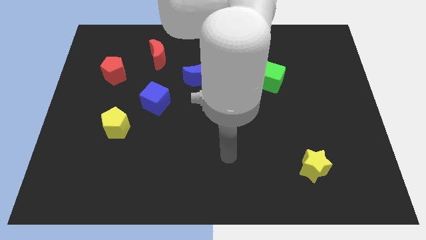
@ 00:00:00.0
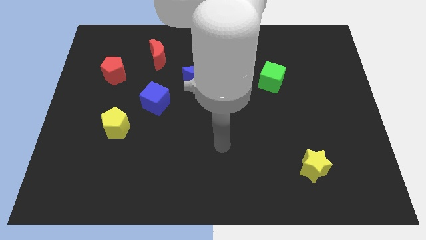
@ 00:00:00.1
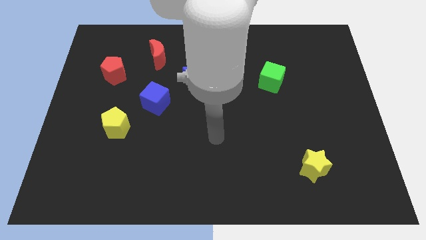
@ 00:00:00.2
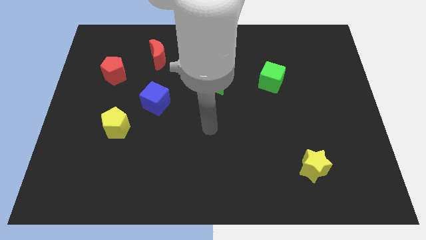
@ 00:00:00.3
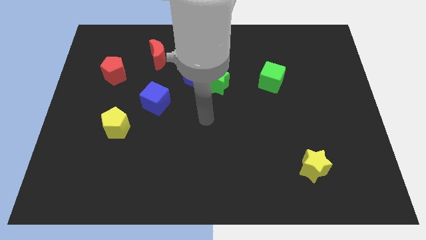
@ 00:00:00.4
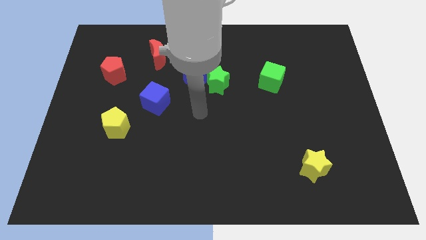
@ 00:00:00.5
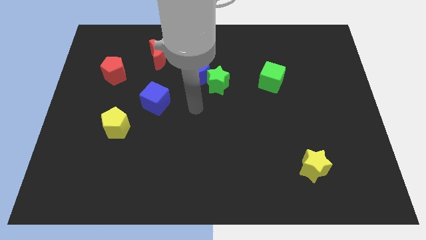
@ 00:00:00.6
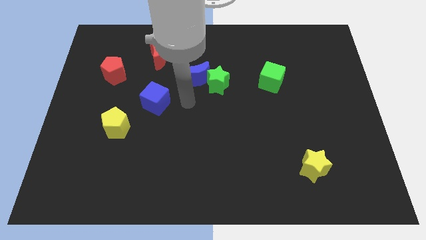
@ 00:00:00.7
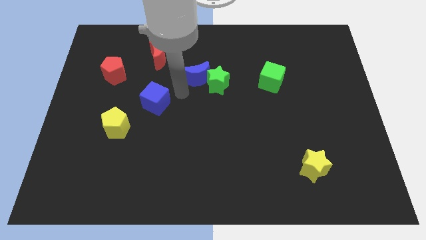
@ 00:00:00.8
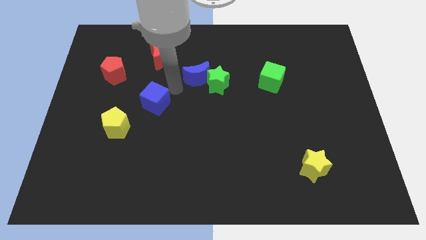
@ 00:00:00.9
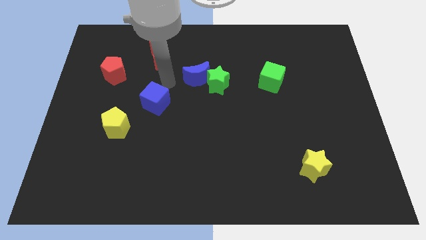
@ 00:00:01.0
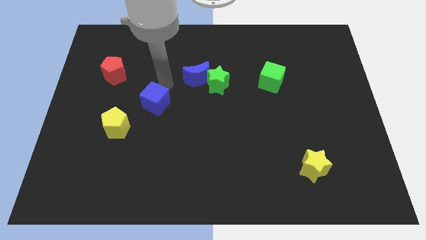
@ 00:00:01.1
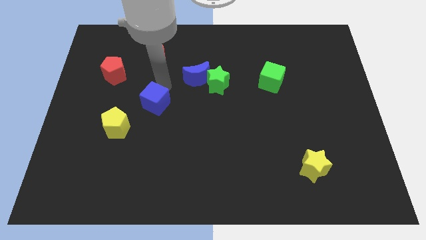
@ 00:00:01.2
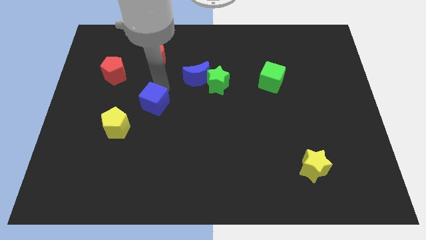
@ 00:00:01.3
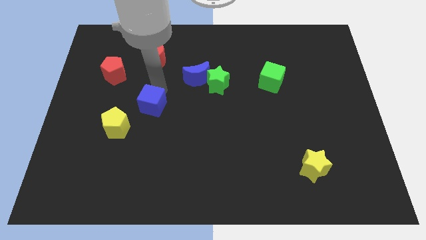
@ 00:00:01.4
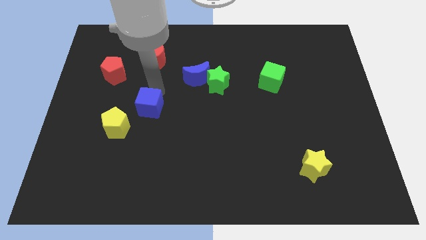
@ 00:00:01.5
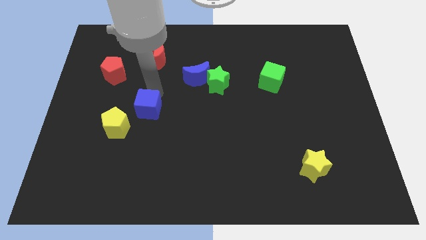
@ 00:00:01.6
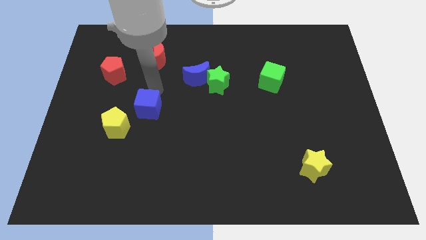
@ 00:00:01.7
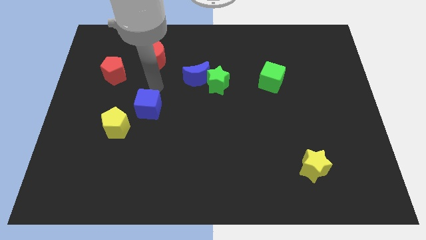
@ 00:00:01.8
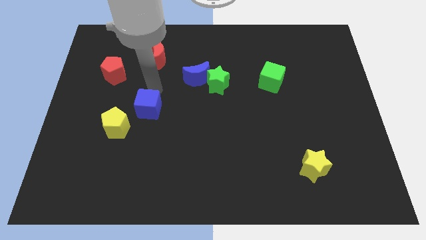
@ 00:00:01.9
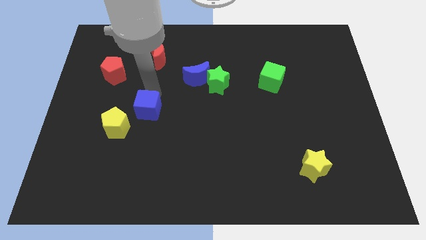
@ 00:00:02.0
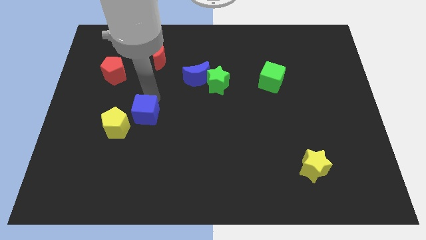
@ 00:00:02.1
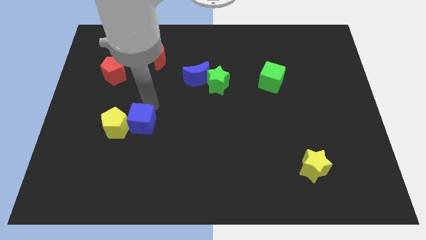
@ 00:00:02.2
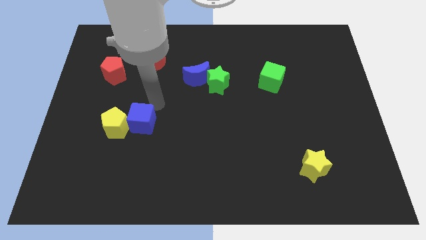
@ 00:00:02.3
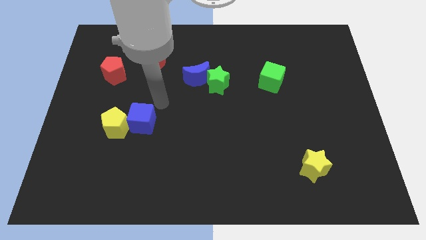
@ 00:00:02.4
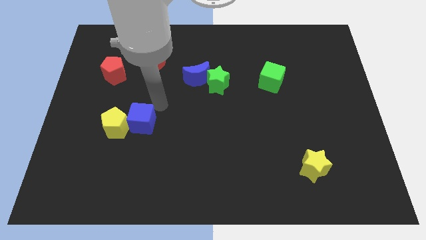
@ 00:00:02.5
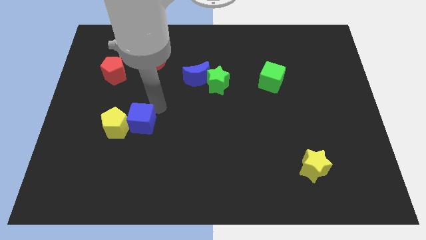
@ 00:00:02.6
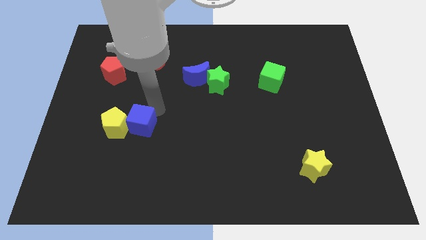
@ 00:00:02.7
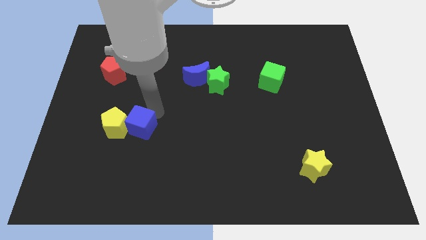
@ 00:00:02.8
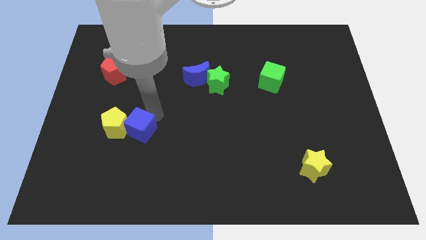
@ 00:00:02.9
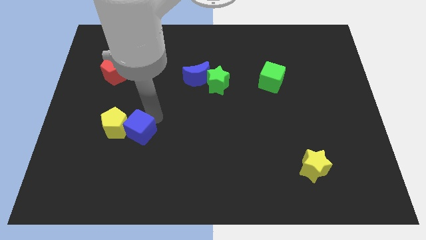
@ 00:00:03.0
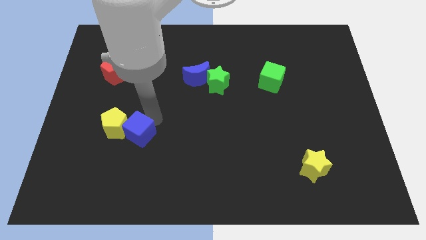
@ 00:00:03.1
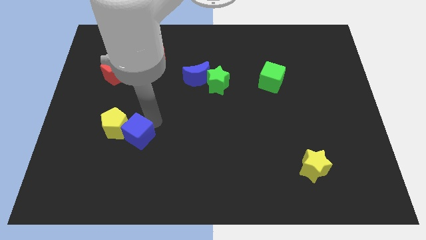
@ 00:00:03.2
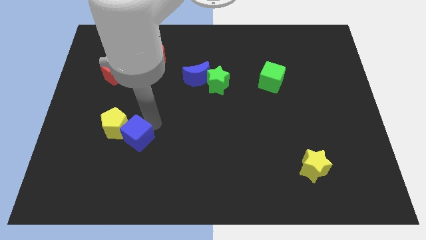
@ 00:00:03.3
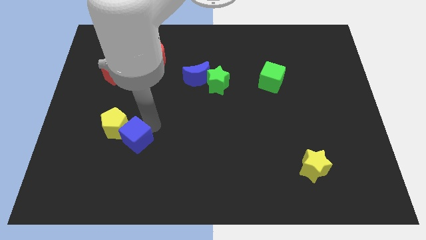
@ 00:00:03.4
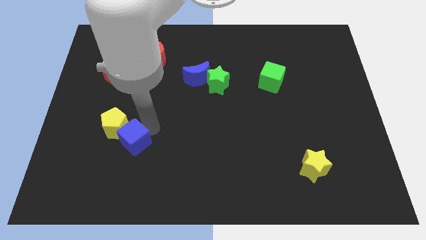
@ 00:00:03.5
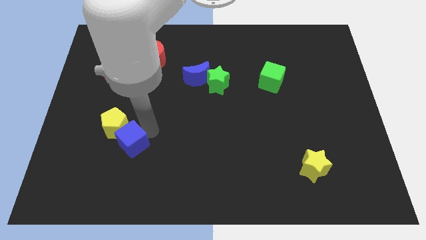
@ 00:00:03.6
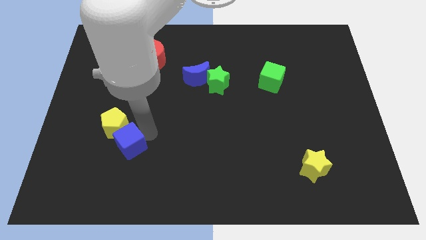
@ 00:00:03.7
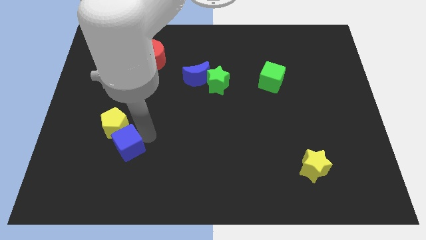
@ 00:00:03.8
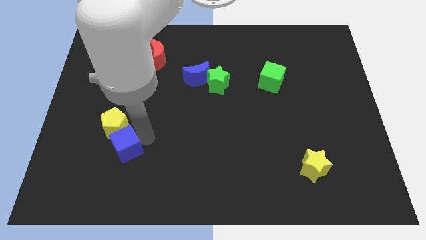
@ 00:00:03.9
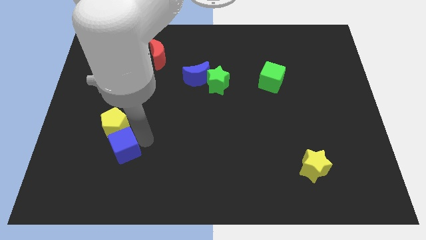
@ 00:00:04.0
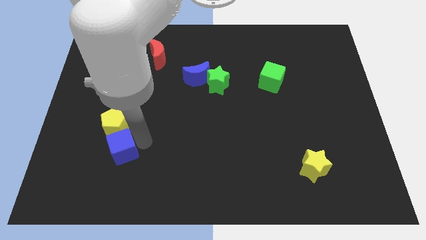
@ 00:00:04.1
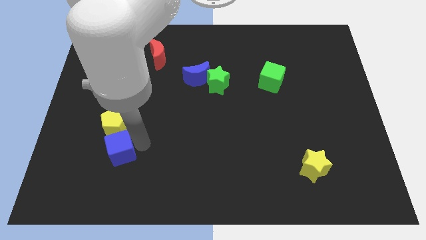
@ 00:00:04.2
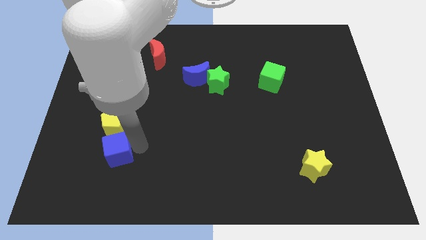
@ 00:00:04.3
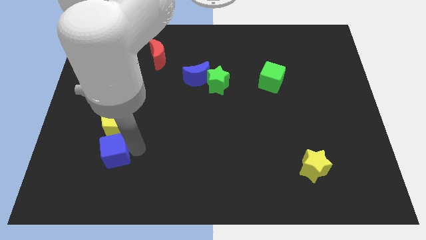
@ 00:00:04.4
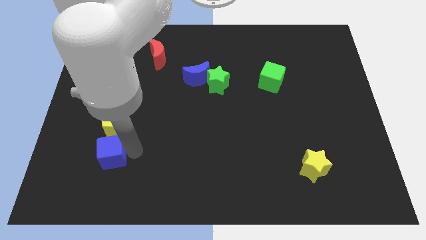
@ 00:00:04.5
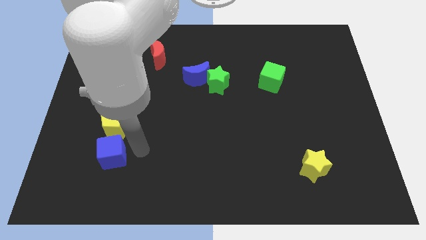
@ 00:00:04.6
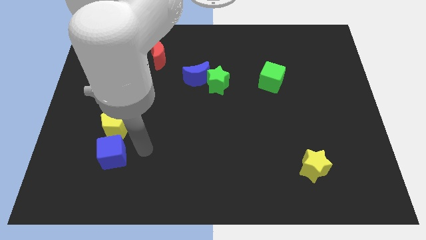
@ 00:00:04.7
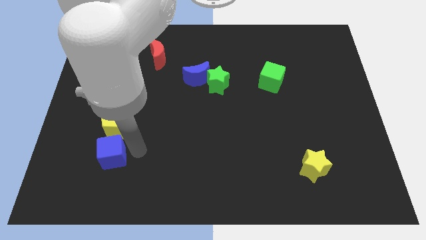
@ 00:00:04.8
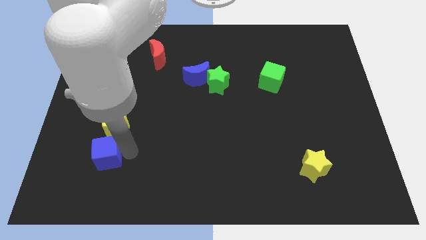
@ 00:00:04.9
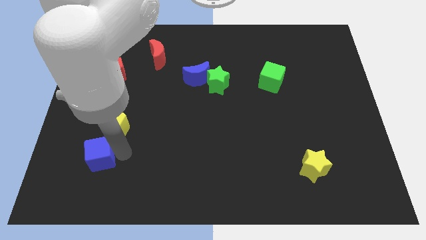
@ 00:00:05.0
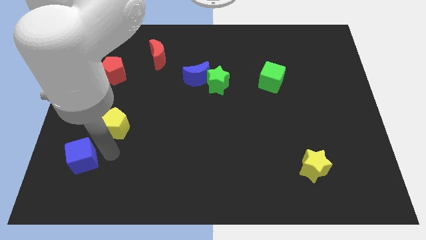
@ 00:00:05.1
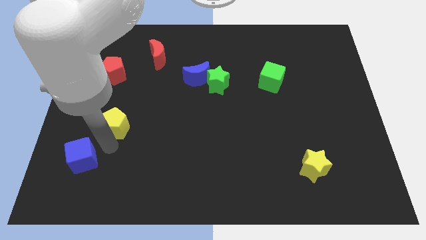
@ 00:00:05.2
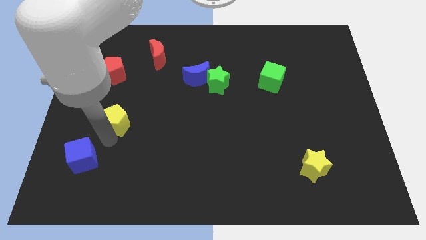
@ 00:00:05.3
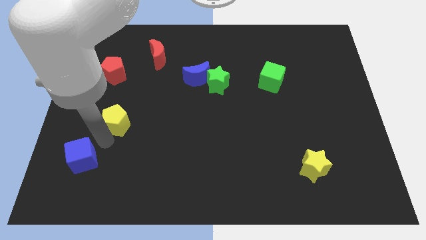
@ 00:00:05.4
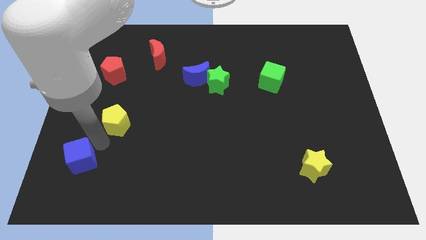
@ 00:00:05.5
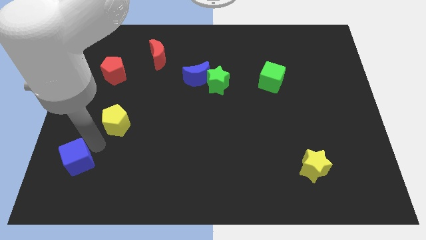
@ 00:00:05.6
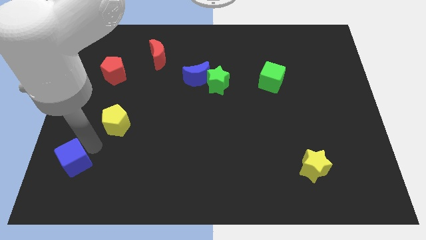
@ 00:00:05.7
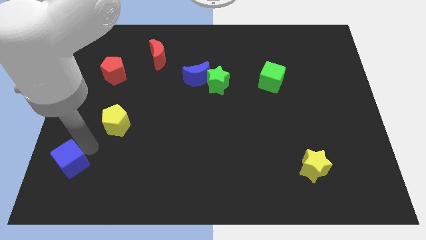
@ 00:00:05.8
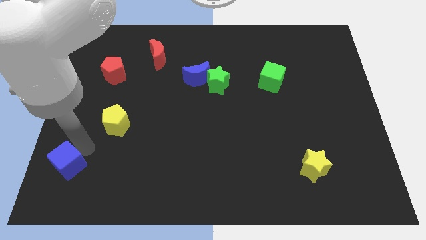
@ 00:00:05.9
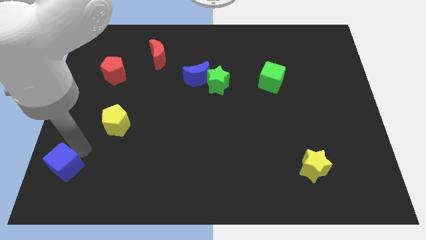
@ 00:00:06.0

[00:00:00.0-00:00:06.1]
move the blue cube to the lower left corner

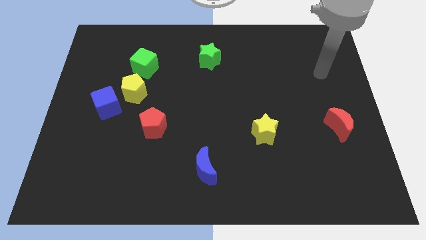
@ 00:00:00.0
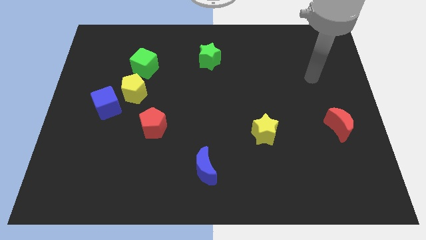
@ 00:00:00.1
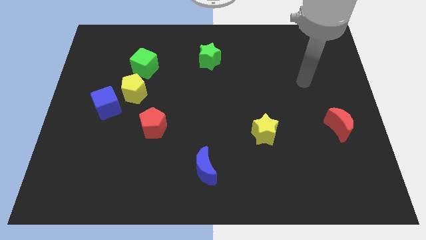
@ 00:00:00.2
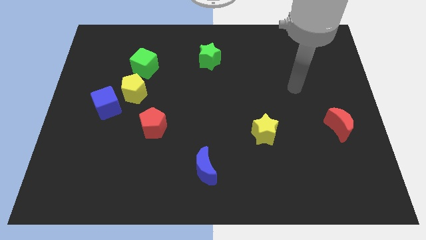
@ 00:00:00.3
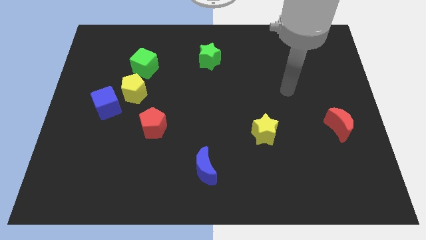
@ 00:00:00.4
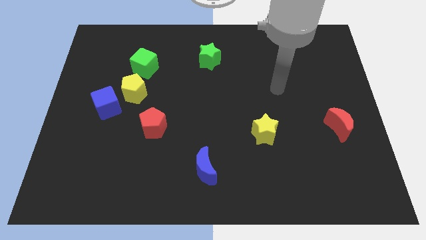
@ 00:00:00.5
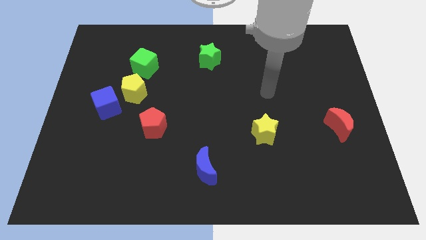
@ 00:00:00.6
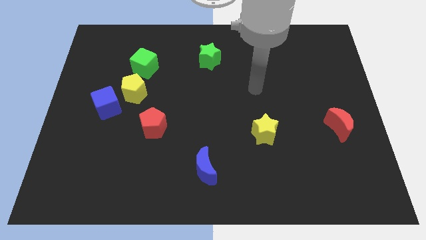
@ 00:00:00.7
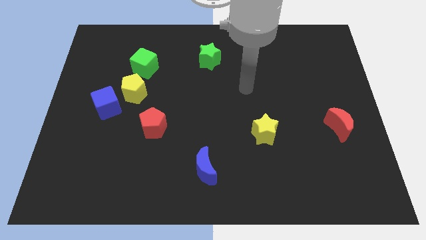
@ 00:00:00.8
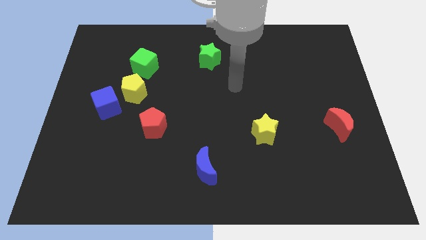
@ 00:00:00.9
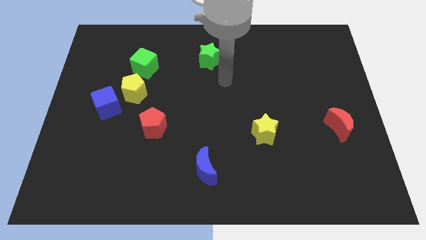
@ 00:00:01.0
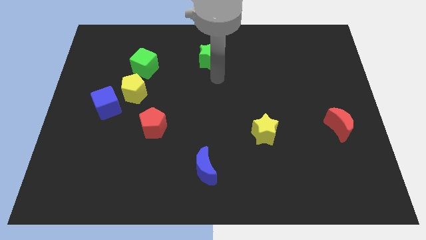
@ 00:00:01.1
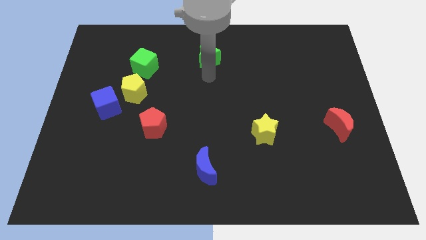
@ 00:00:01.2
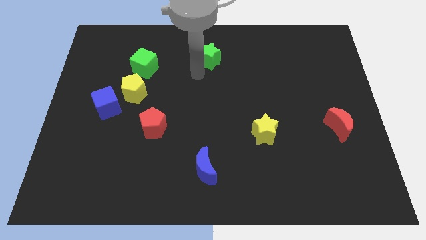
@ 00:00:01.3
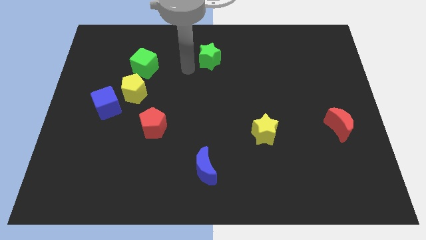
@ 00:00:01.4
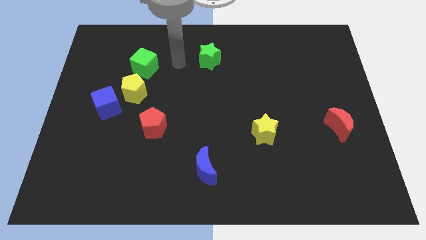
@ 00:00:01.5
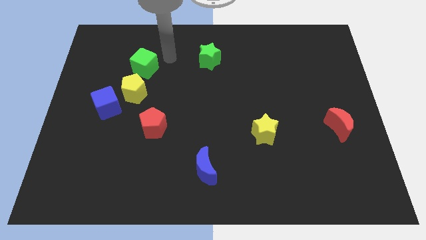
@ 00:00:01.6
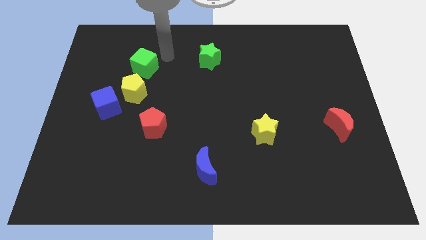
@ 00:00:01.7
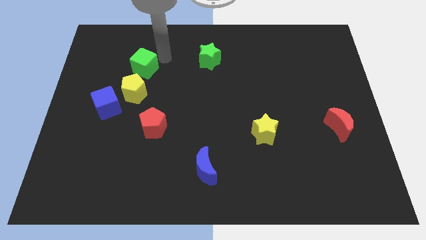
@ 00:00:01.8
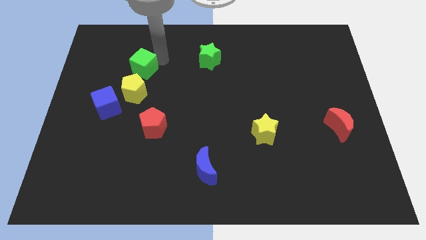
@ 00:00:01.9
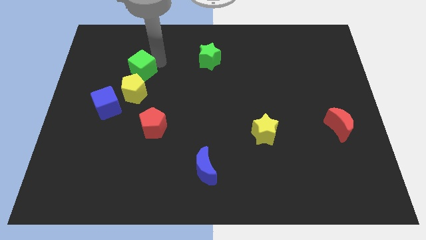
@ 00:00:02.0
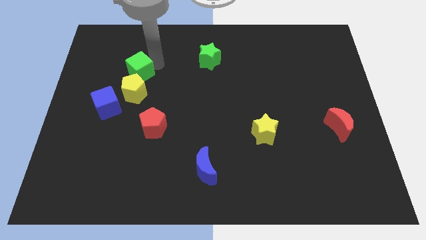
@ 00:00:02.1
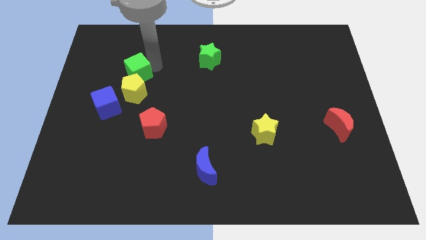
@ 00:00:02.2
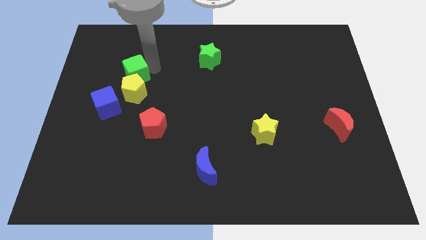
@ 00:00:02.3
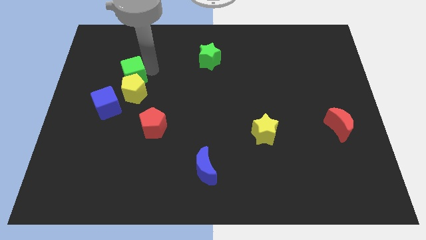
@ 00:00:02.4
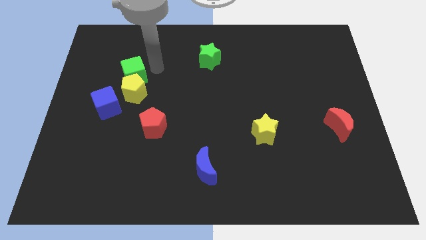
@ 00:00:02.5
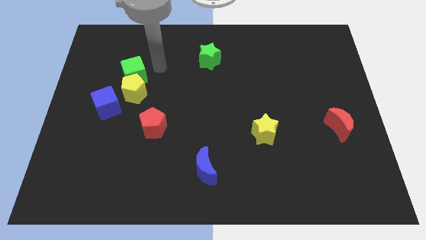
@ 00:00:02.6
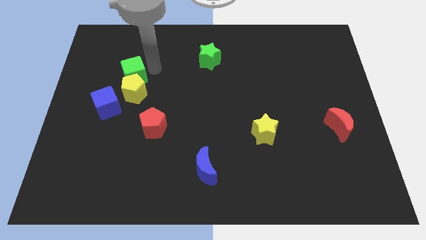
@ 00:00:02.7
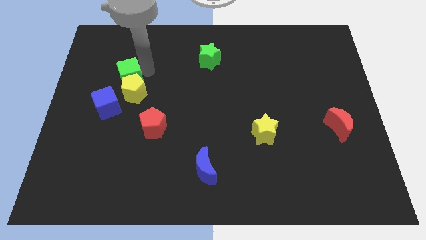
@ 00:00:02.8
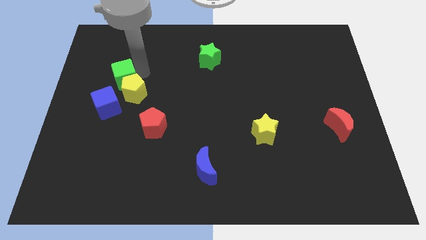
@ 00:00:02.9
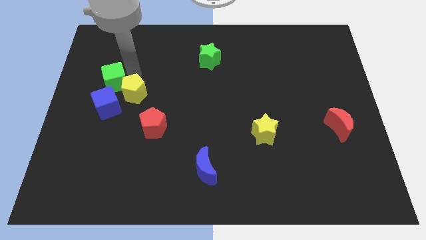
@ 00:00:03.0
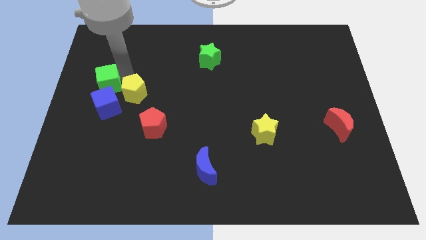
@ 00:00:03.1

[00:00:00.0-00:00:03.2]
slide the green cube to the left side
